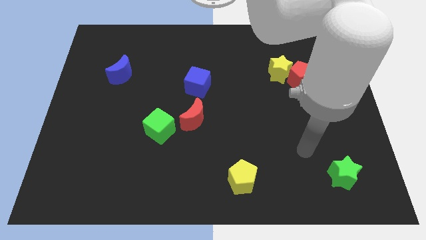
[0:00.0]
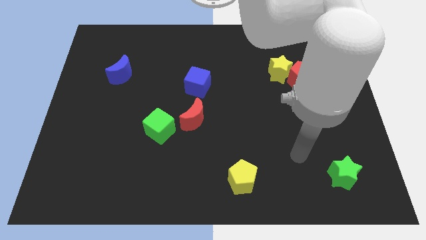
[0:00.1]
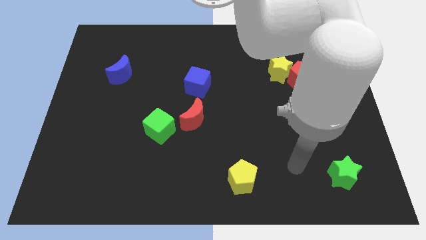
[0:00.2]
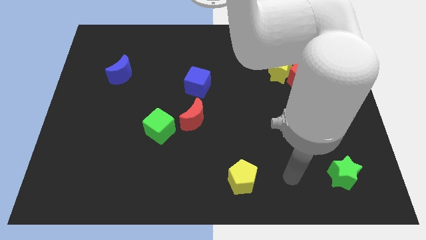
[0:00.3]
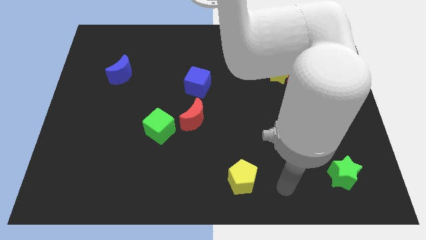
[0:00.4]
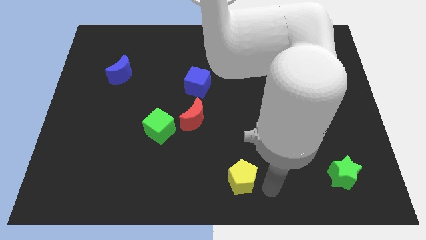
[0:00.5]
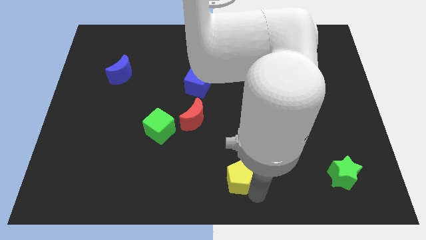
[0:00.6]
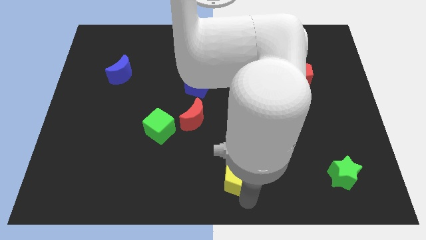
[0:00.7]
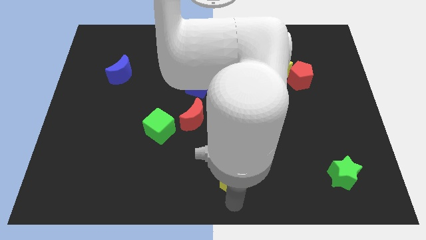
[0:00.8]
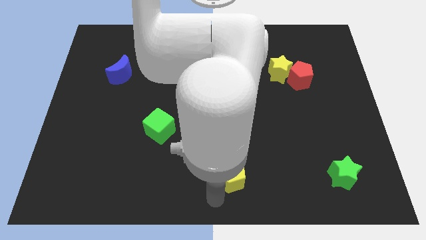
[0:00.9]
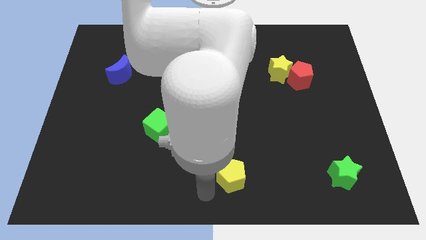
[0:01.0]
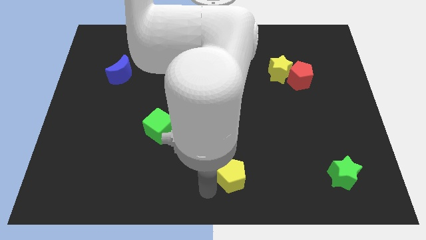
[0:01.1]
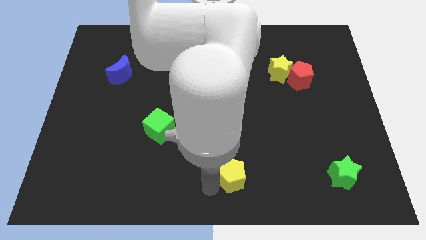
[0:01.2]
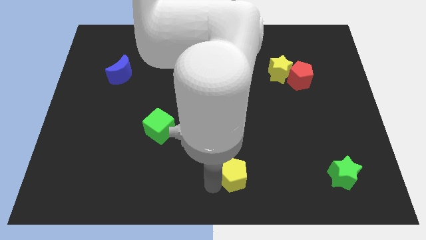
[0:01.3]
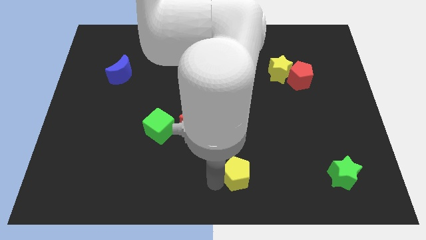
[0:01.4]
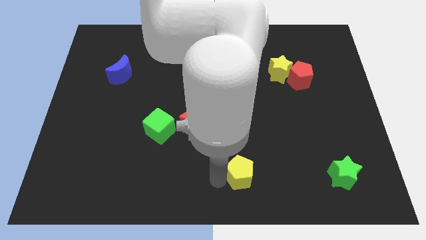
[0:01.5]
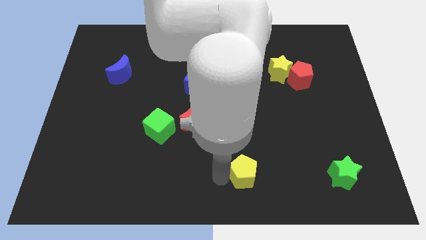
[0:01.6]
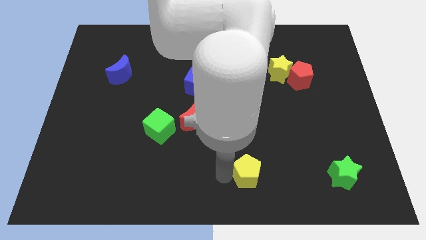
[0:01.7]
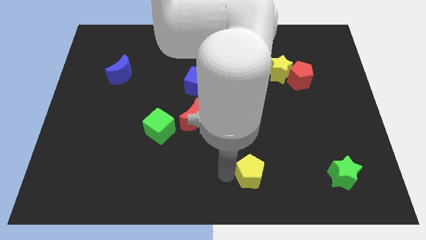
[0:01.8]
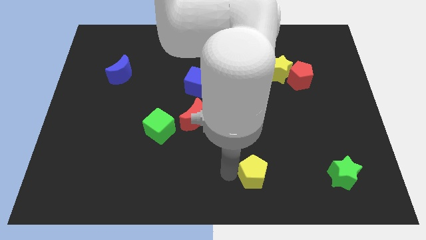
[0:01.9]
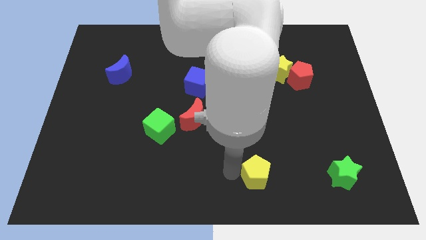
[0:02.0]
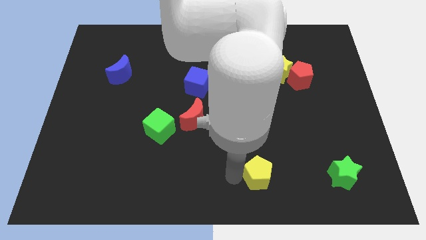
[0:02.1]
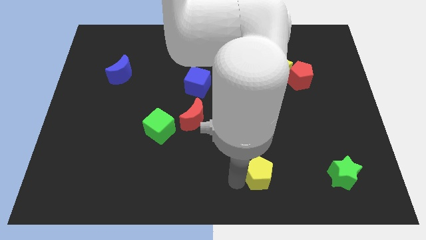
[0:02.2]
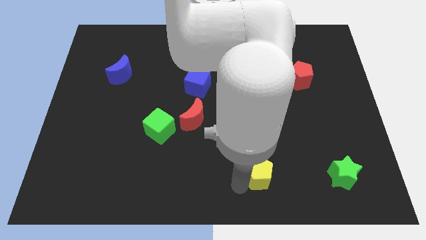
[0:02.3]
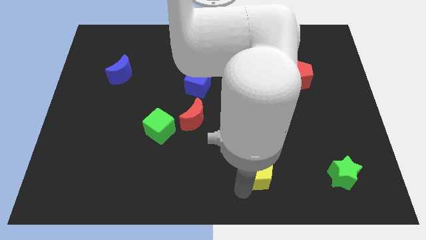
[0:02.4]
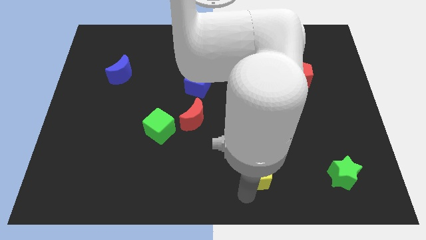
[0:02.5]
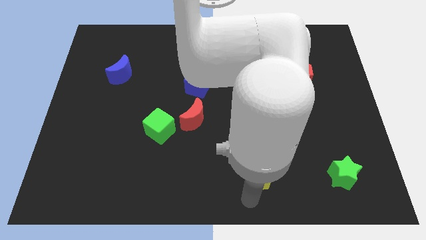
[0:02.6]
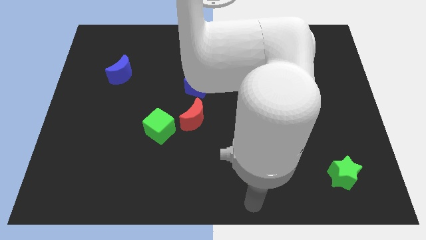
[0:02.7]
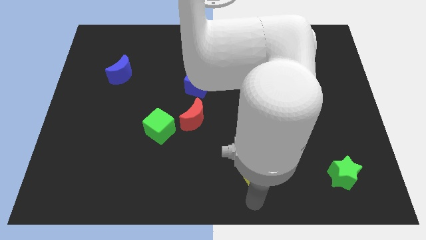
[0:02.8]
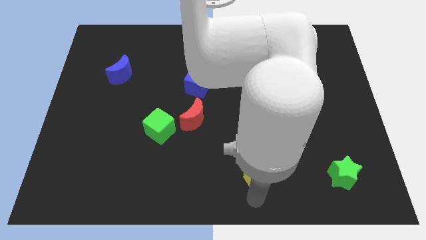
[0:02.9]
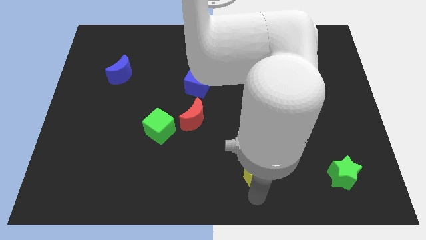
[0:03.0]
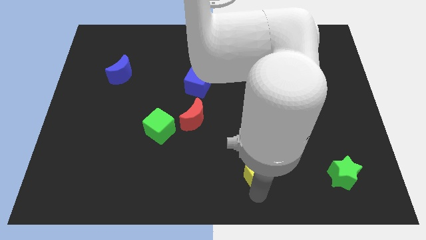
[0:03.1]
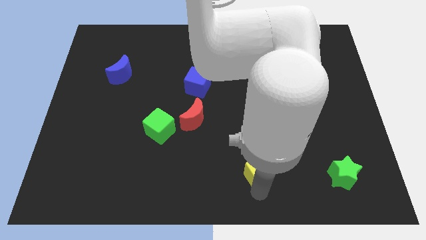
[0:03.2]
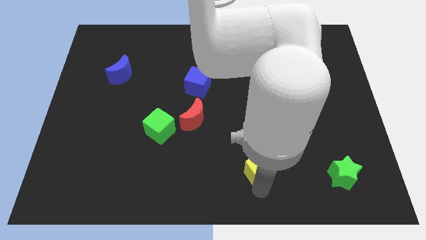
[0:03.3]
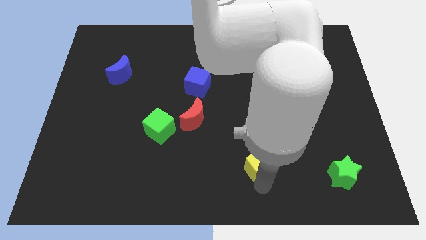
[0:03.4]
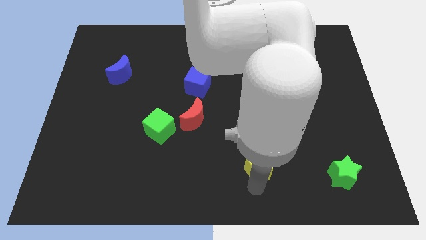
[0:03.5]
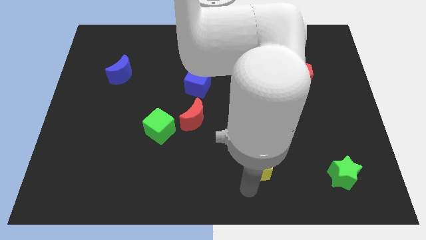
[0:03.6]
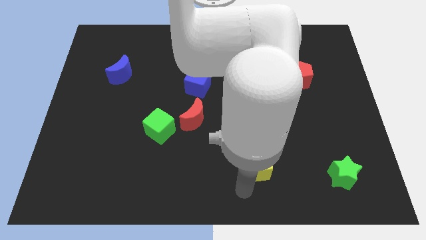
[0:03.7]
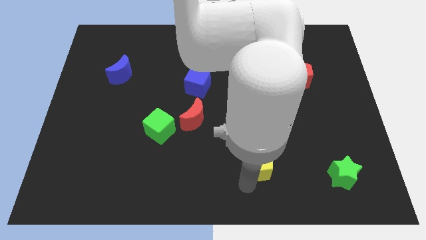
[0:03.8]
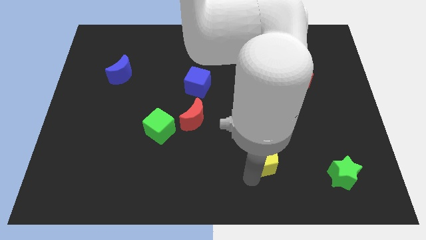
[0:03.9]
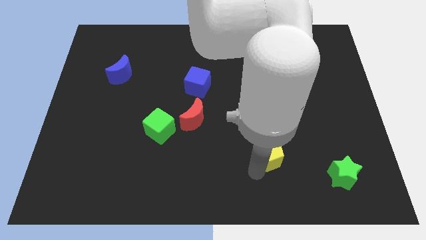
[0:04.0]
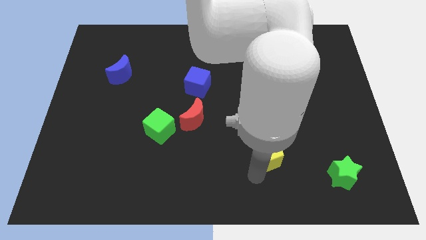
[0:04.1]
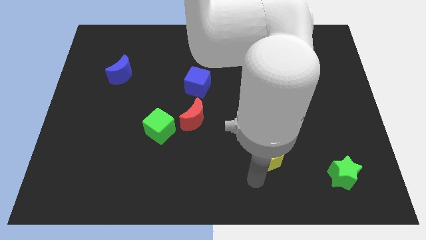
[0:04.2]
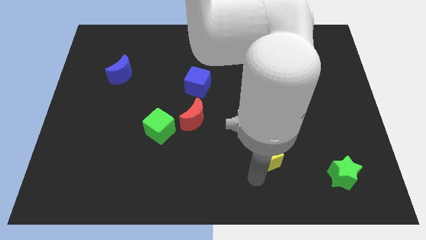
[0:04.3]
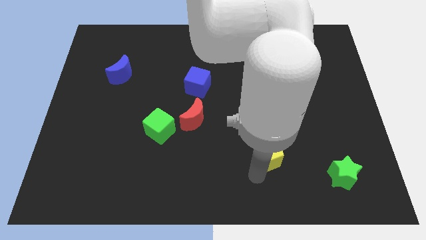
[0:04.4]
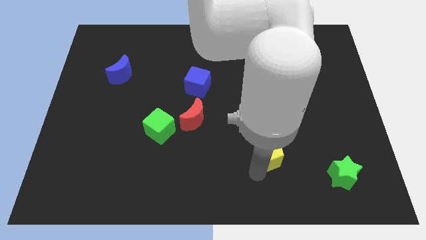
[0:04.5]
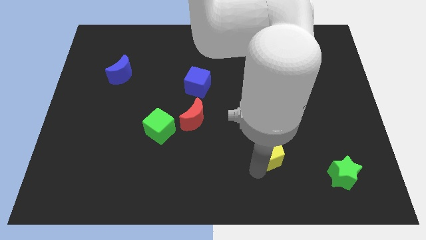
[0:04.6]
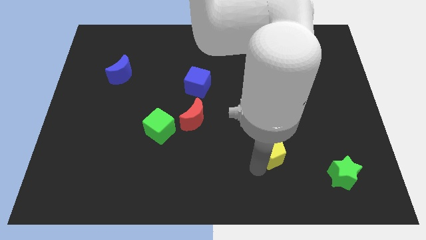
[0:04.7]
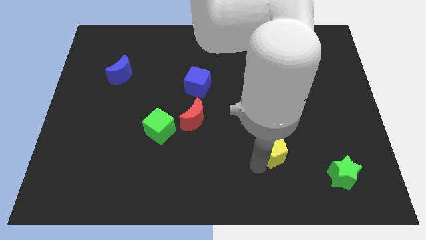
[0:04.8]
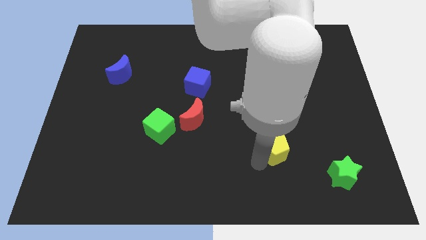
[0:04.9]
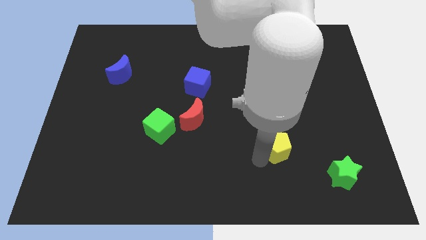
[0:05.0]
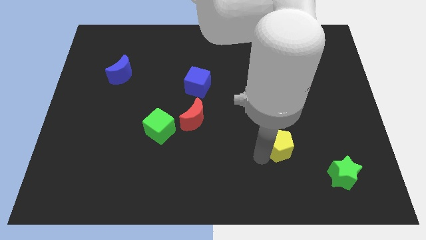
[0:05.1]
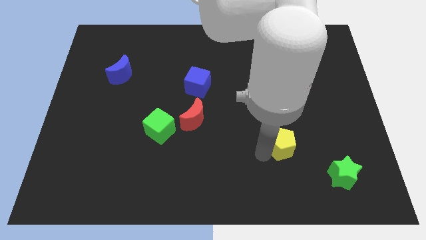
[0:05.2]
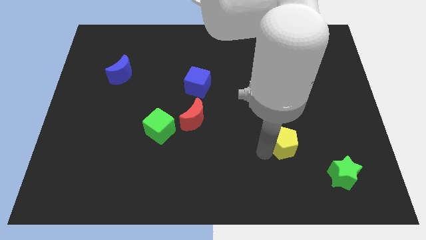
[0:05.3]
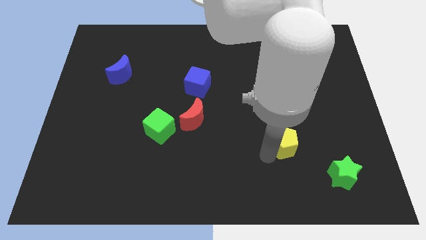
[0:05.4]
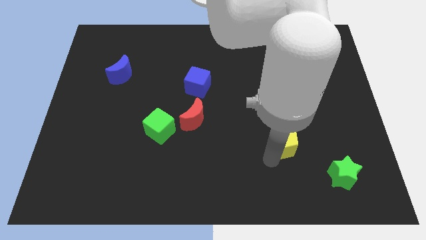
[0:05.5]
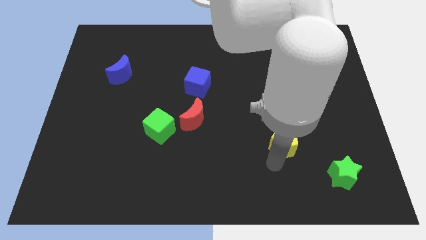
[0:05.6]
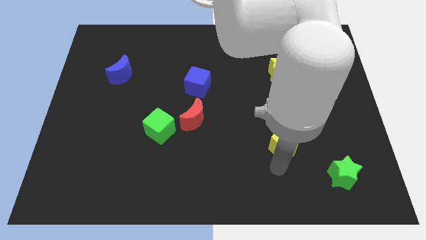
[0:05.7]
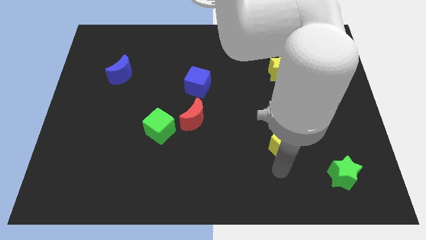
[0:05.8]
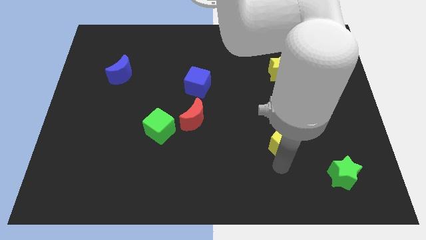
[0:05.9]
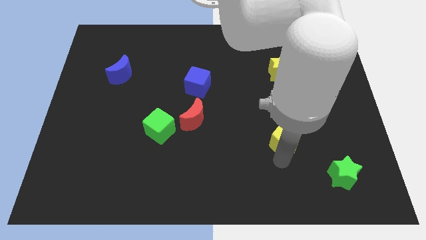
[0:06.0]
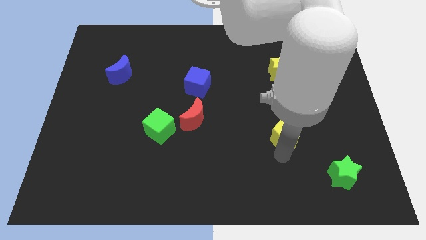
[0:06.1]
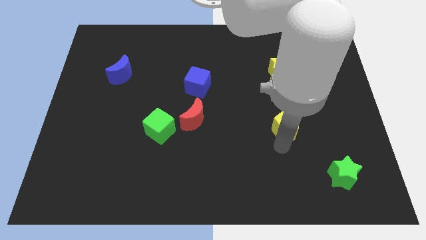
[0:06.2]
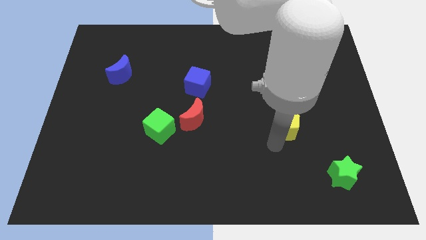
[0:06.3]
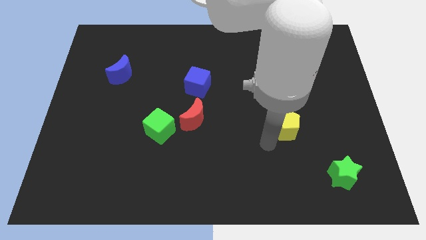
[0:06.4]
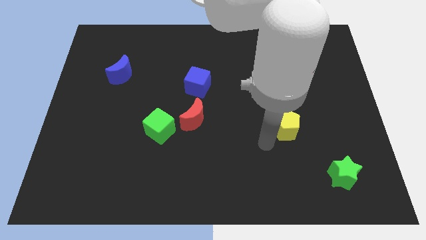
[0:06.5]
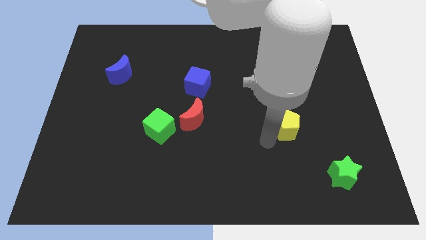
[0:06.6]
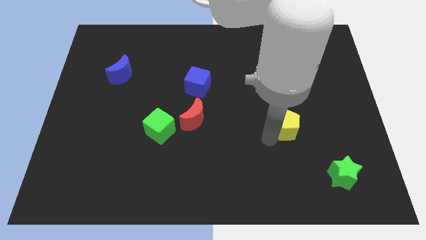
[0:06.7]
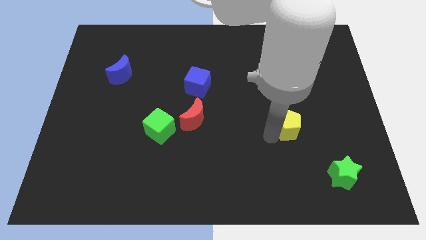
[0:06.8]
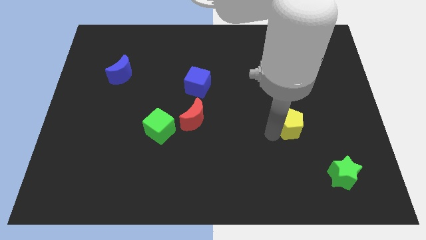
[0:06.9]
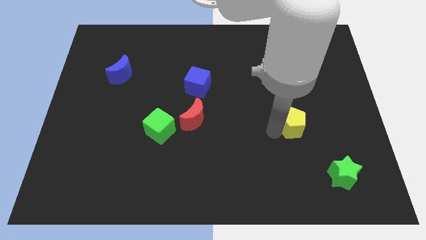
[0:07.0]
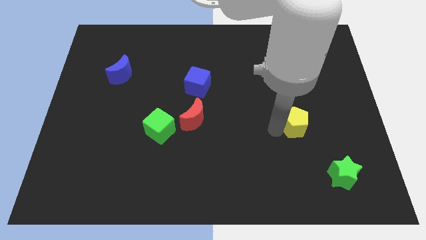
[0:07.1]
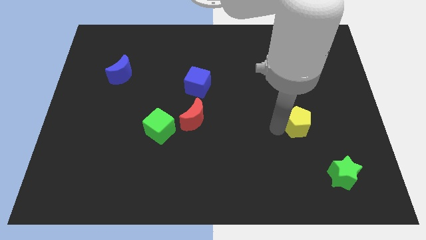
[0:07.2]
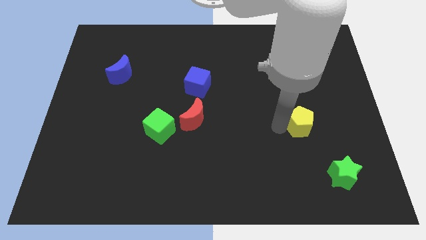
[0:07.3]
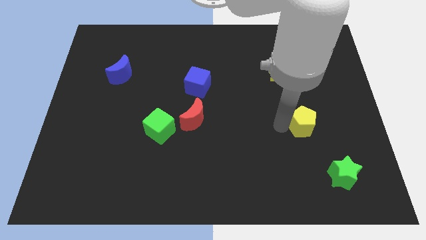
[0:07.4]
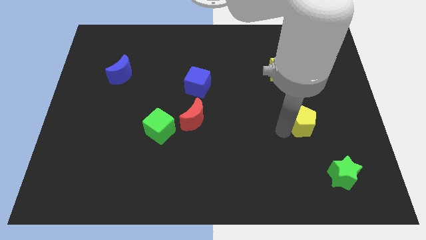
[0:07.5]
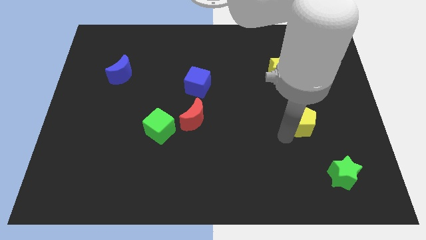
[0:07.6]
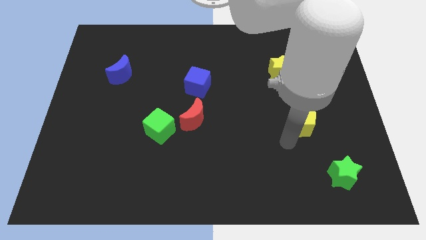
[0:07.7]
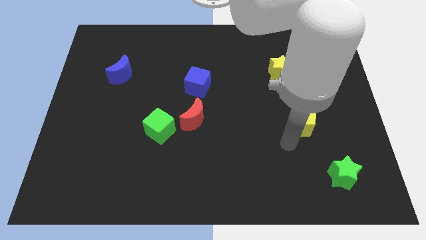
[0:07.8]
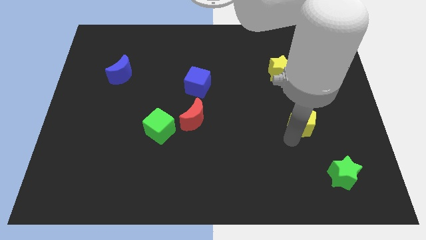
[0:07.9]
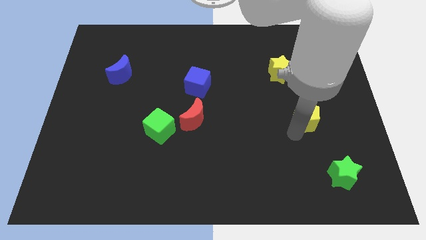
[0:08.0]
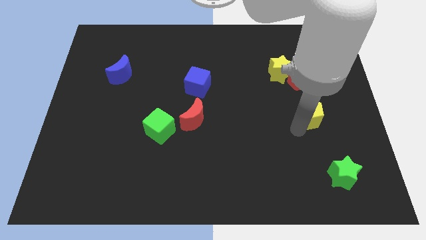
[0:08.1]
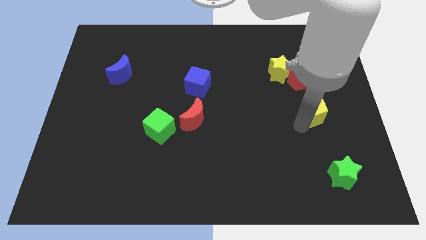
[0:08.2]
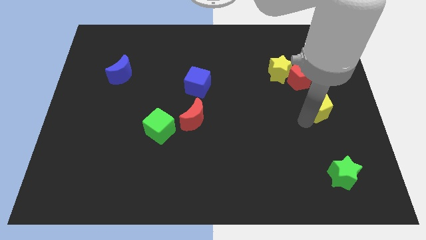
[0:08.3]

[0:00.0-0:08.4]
move the yellow pentagon diagonally down and to the right of the red pentagon
